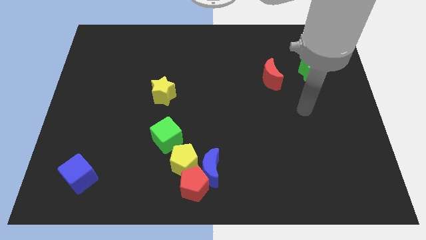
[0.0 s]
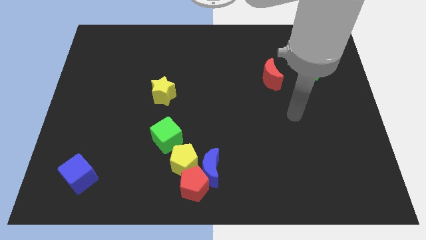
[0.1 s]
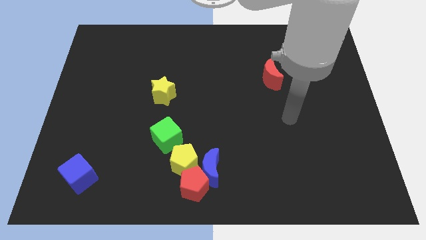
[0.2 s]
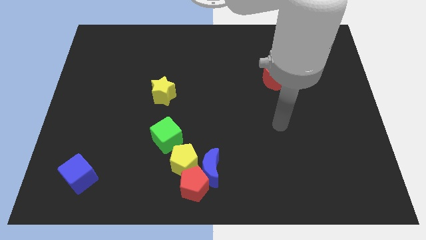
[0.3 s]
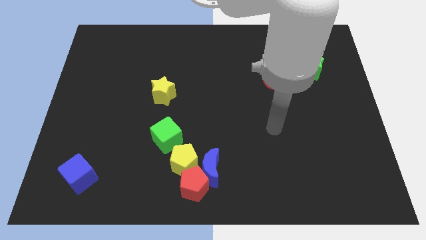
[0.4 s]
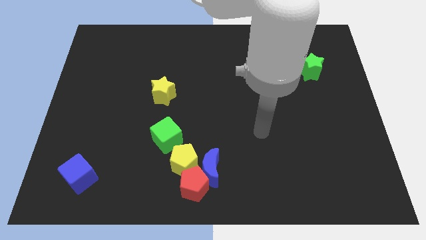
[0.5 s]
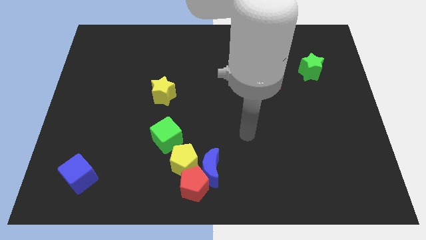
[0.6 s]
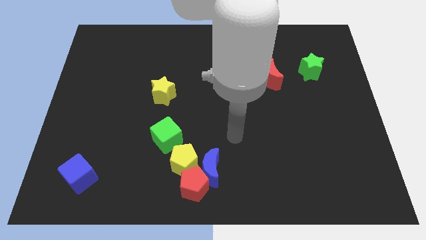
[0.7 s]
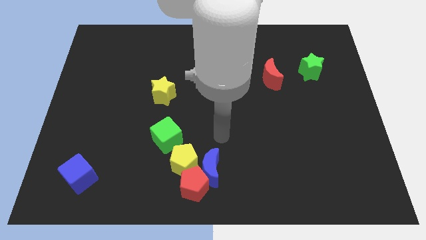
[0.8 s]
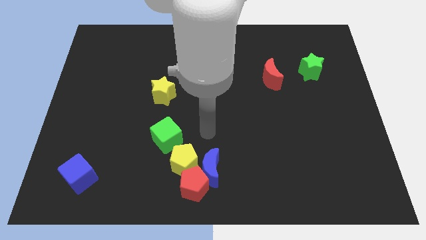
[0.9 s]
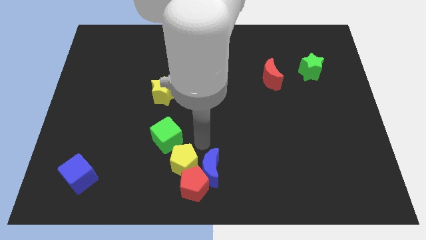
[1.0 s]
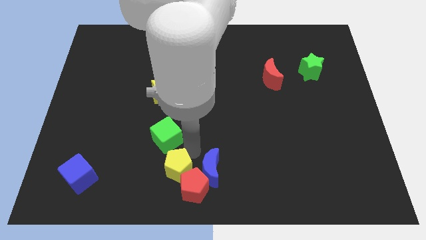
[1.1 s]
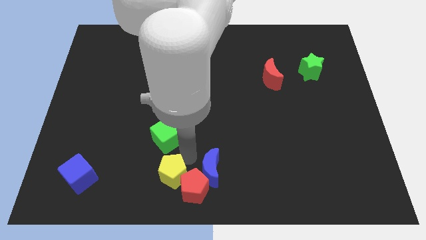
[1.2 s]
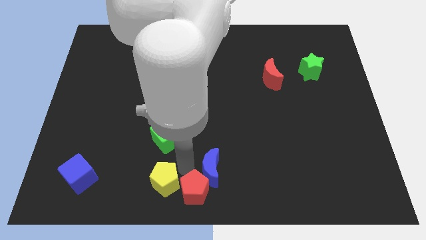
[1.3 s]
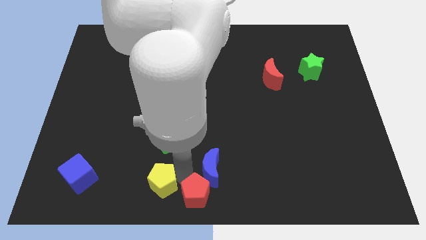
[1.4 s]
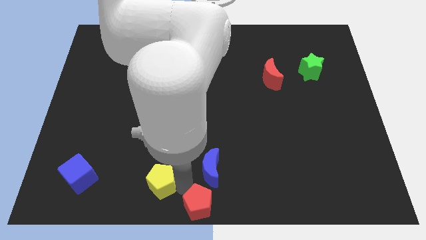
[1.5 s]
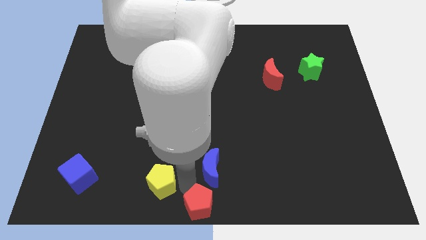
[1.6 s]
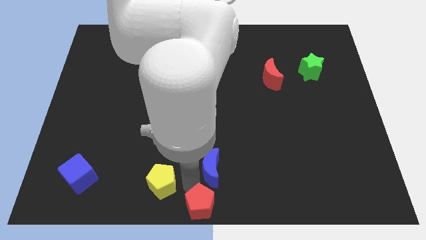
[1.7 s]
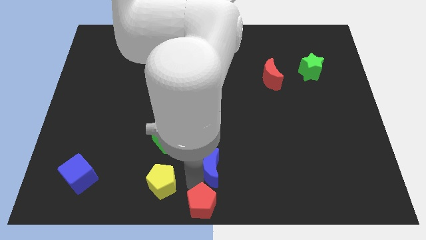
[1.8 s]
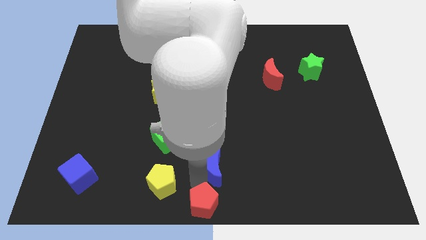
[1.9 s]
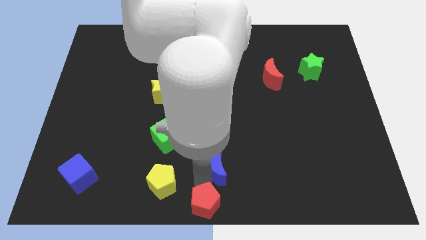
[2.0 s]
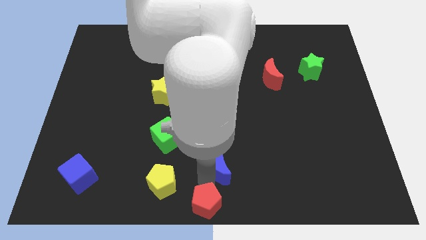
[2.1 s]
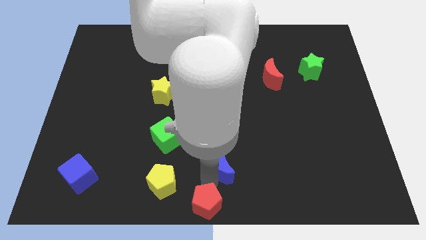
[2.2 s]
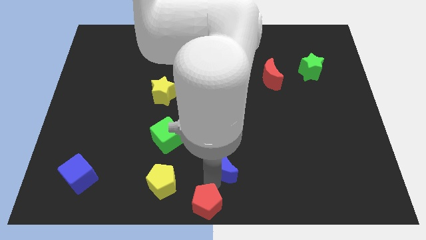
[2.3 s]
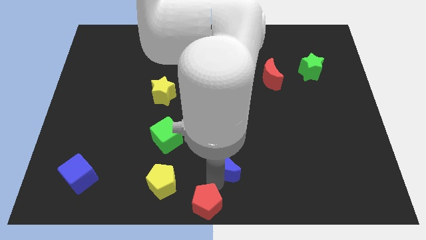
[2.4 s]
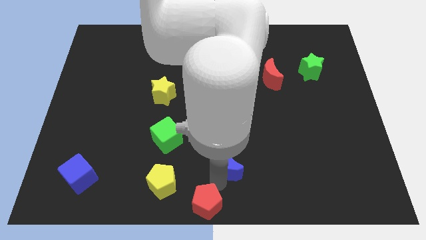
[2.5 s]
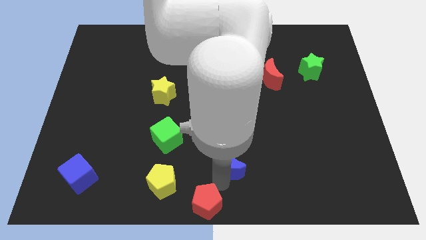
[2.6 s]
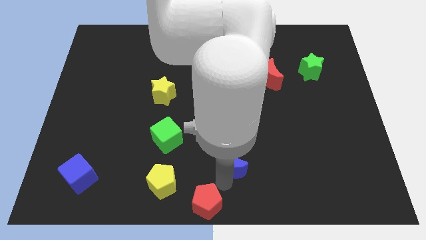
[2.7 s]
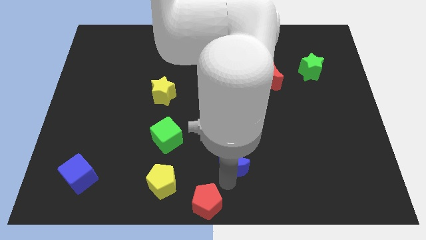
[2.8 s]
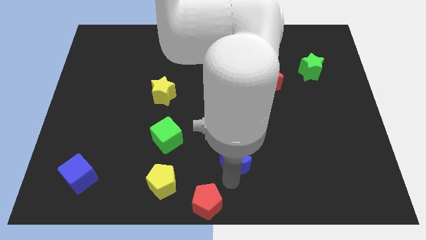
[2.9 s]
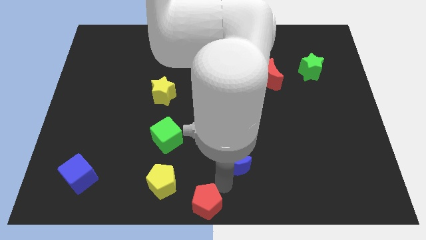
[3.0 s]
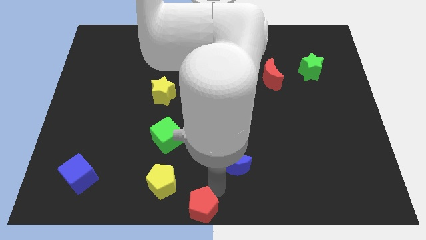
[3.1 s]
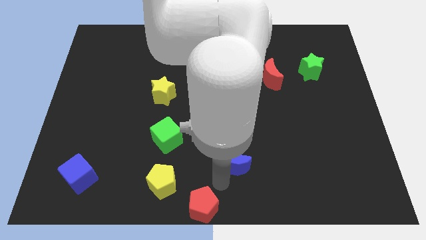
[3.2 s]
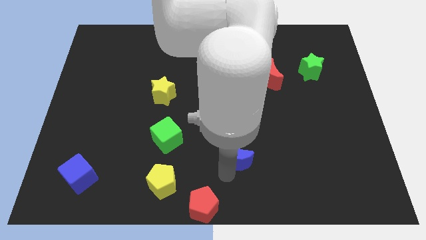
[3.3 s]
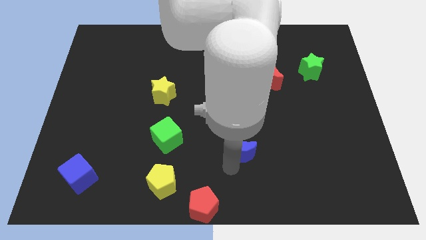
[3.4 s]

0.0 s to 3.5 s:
slightly move the blue moon up and to the right diagonally

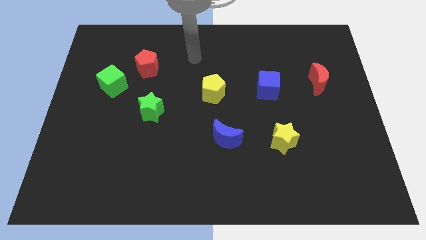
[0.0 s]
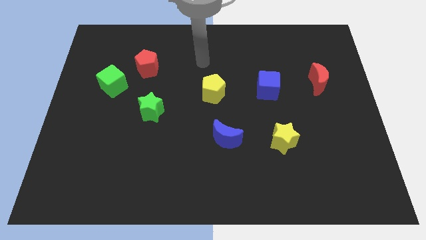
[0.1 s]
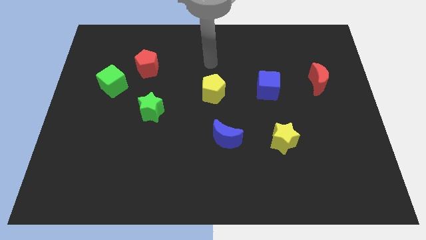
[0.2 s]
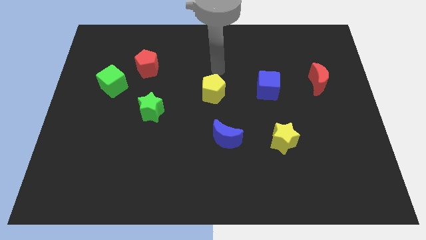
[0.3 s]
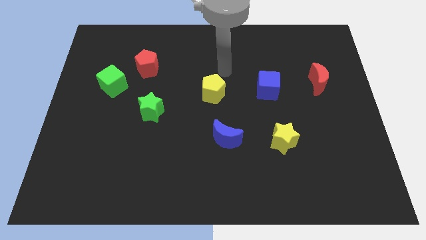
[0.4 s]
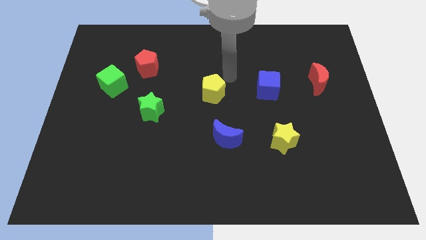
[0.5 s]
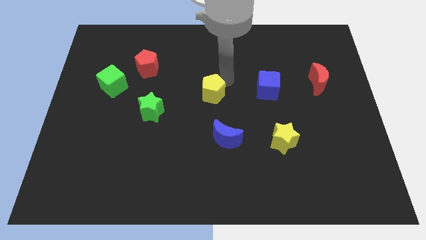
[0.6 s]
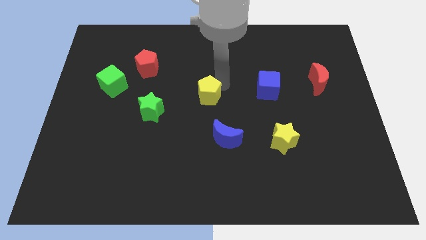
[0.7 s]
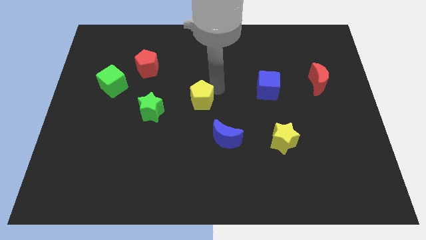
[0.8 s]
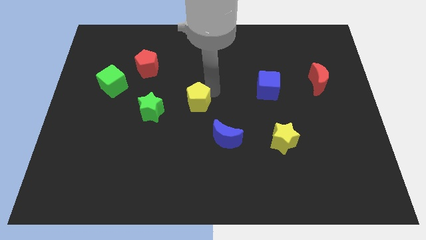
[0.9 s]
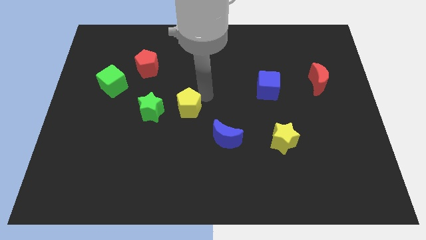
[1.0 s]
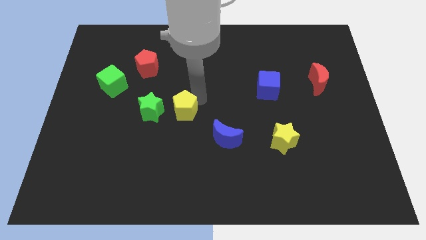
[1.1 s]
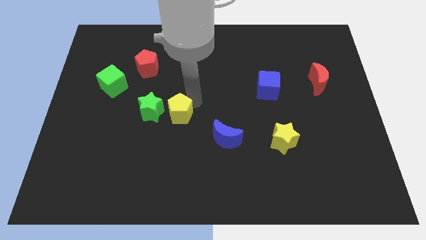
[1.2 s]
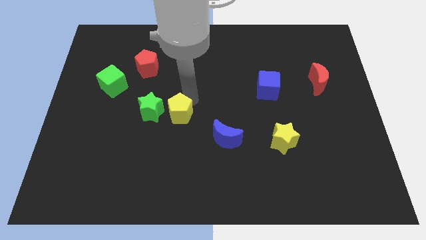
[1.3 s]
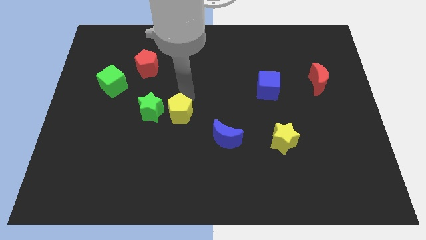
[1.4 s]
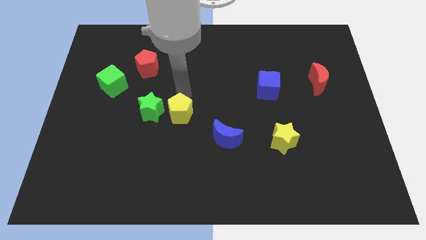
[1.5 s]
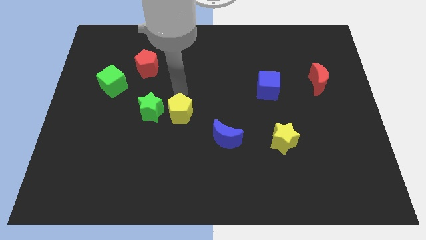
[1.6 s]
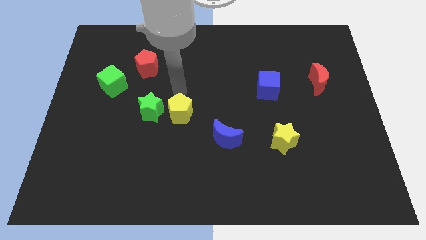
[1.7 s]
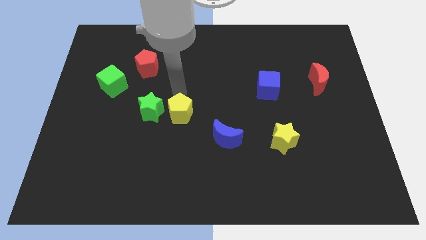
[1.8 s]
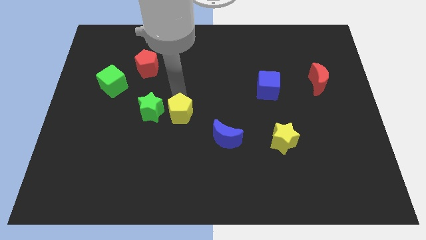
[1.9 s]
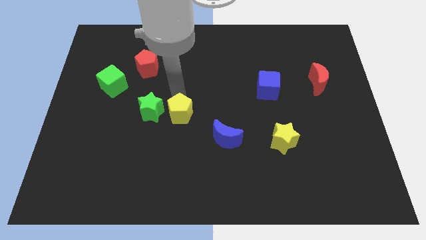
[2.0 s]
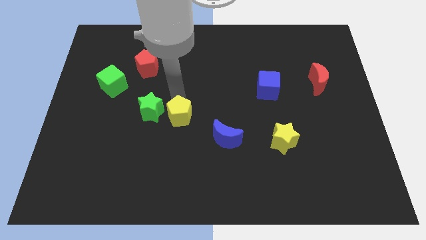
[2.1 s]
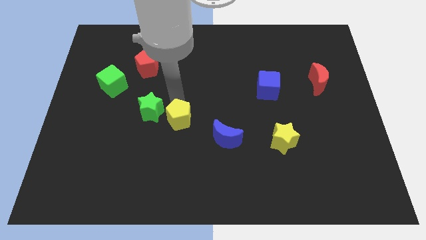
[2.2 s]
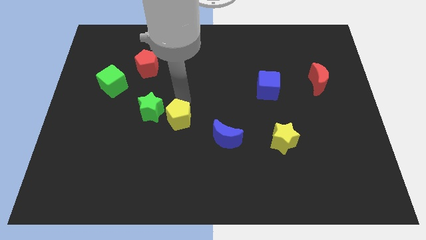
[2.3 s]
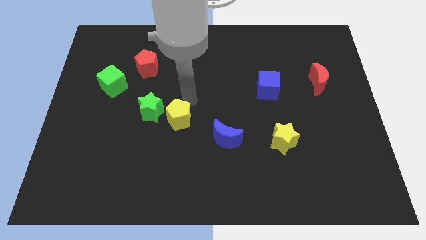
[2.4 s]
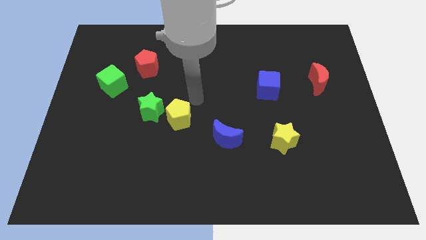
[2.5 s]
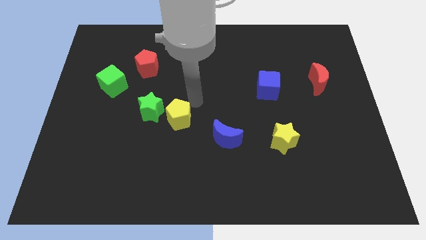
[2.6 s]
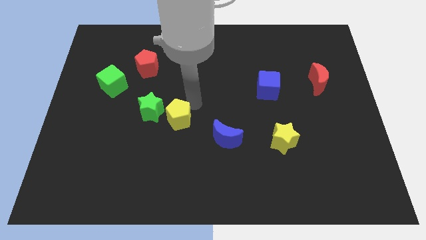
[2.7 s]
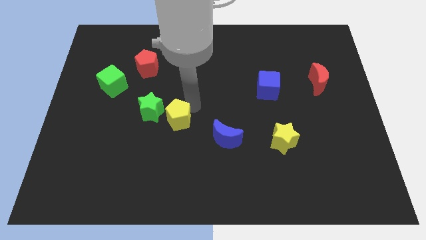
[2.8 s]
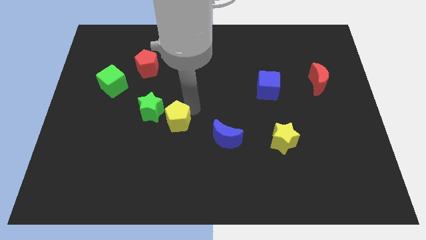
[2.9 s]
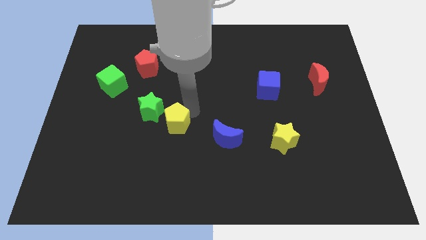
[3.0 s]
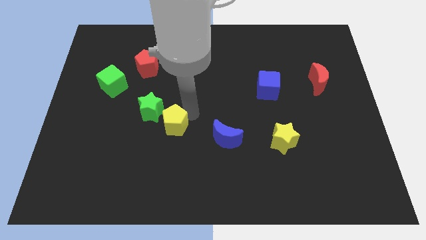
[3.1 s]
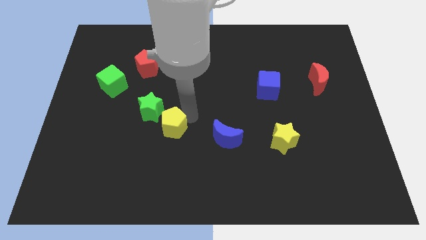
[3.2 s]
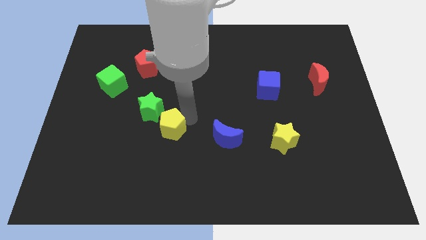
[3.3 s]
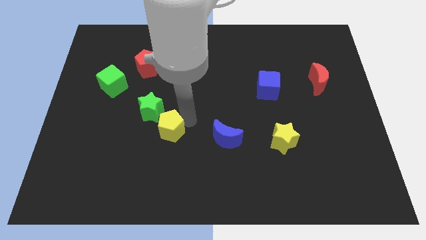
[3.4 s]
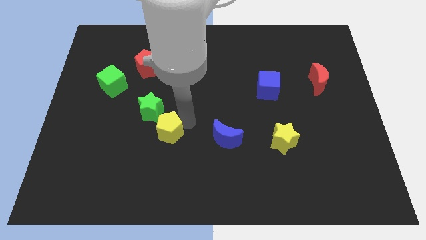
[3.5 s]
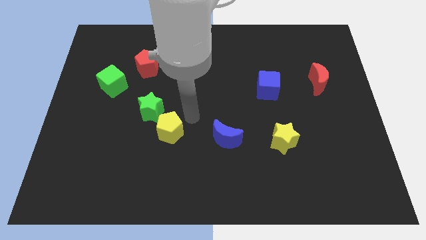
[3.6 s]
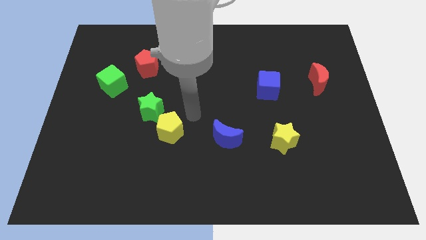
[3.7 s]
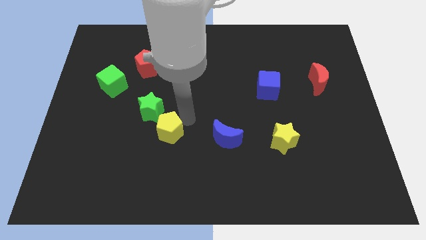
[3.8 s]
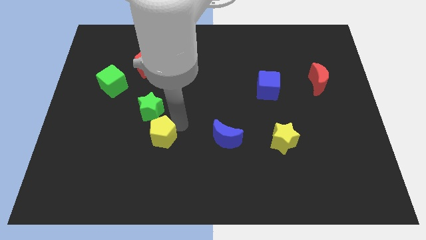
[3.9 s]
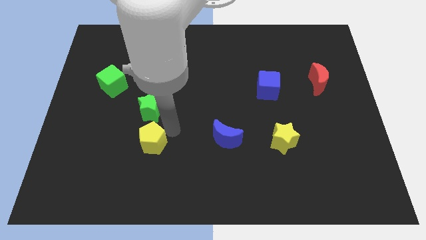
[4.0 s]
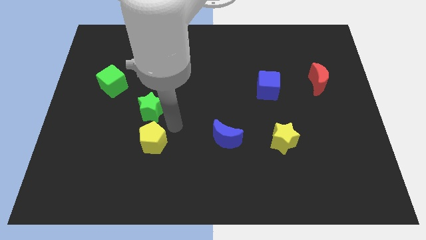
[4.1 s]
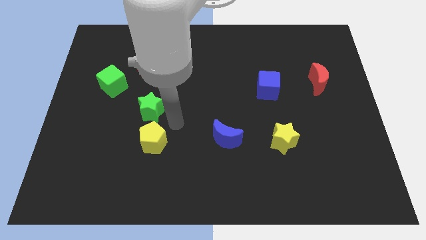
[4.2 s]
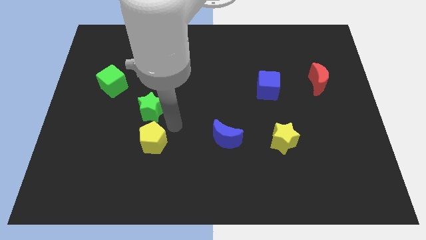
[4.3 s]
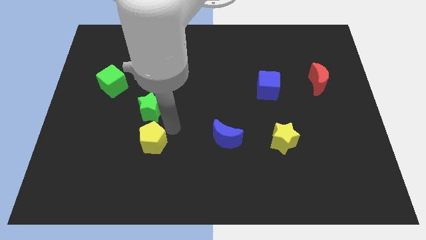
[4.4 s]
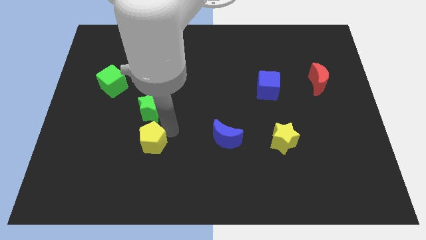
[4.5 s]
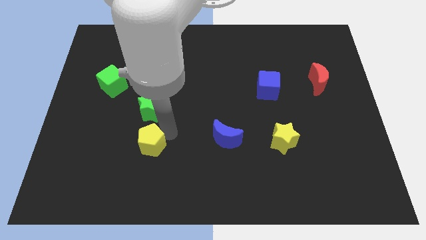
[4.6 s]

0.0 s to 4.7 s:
slide the yellow pentagon down and left
